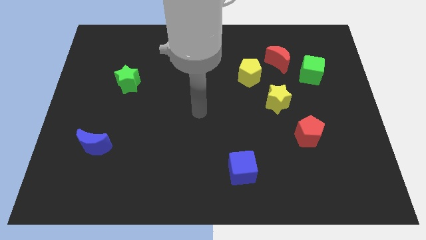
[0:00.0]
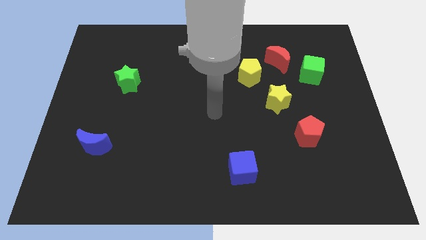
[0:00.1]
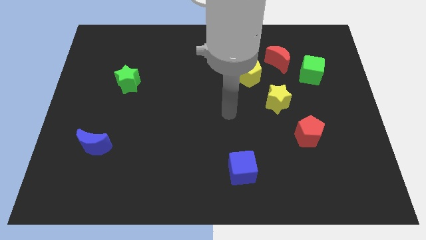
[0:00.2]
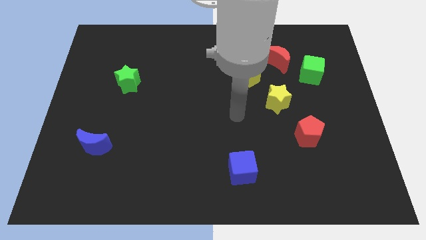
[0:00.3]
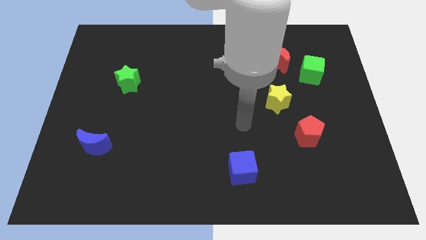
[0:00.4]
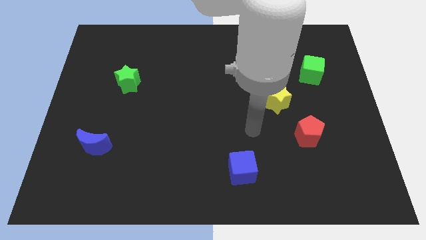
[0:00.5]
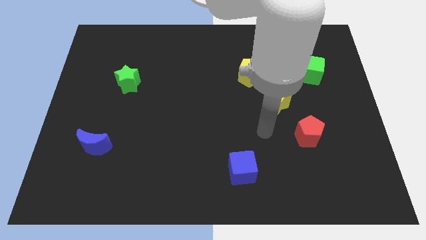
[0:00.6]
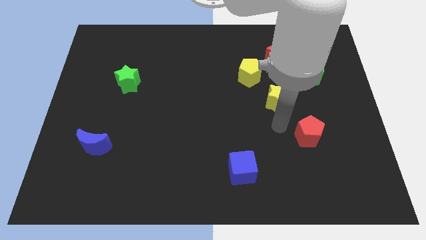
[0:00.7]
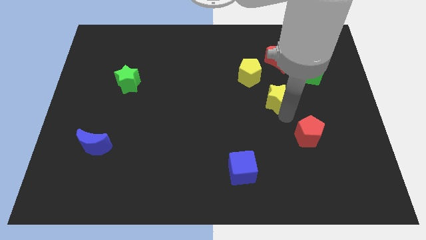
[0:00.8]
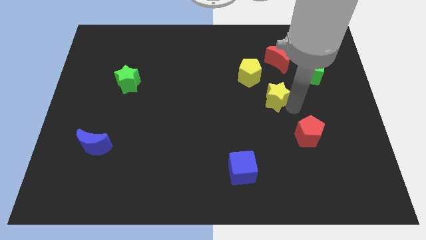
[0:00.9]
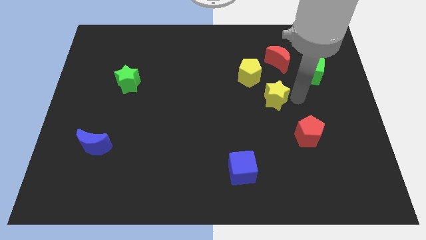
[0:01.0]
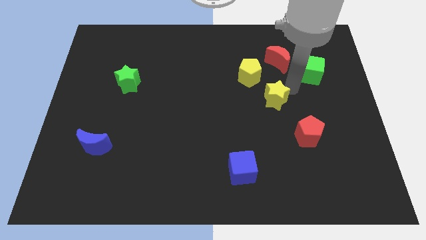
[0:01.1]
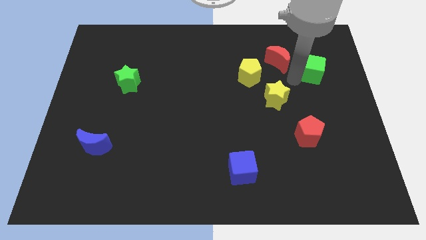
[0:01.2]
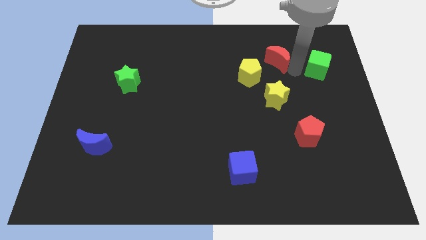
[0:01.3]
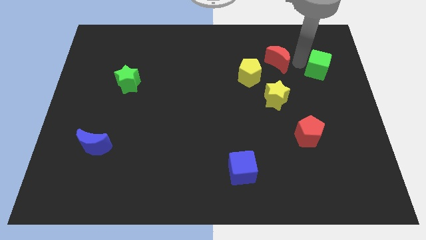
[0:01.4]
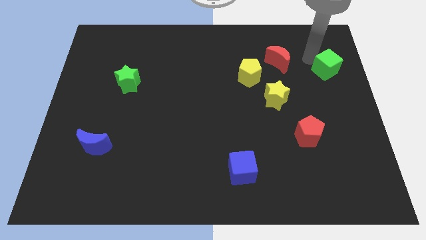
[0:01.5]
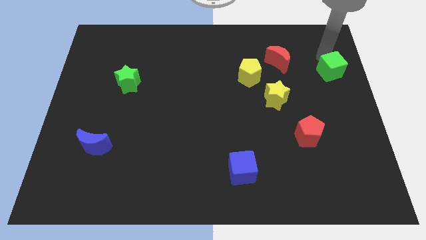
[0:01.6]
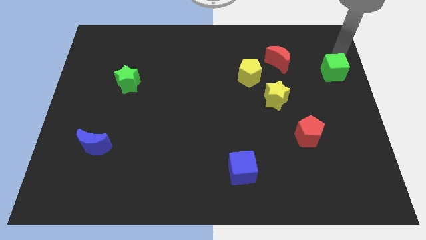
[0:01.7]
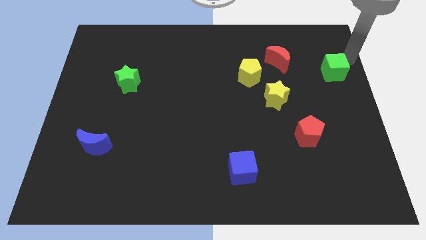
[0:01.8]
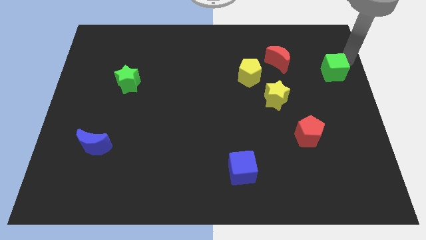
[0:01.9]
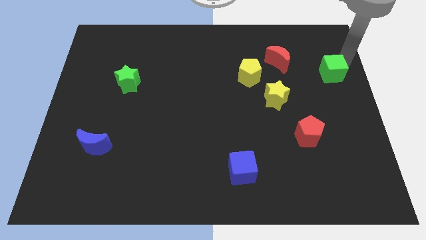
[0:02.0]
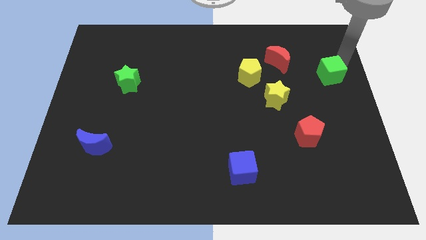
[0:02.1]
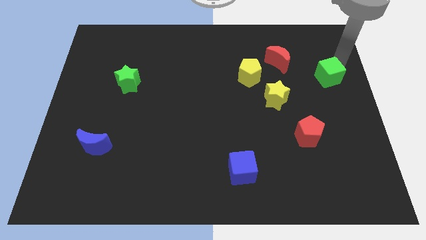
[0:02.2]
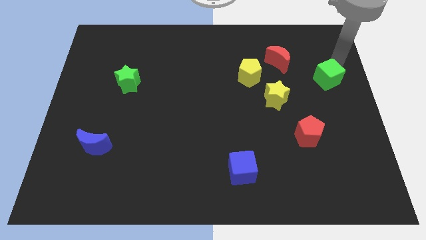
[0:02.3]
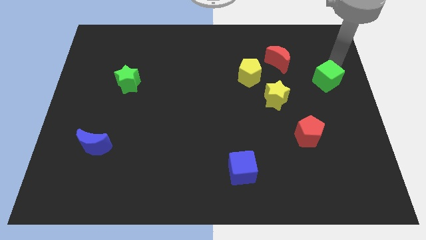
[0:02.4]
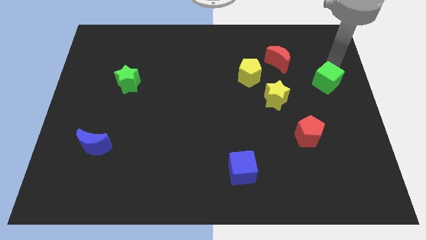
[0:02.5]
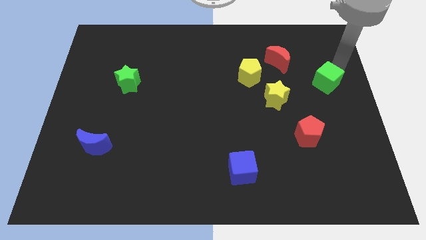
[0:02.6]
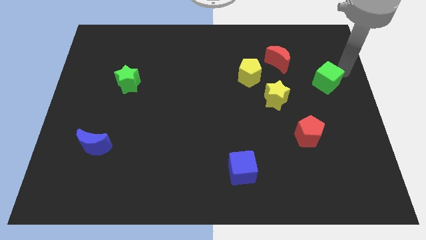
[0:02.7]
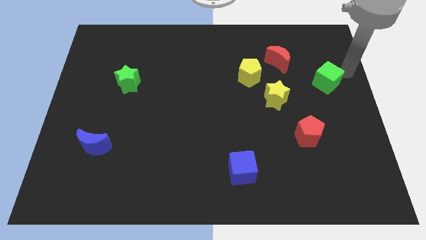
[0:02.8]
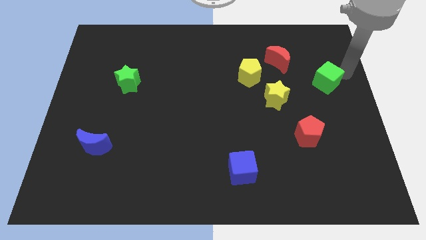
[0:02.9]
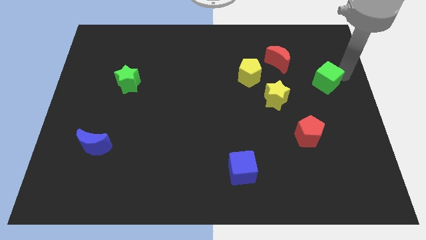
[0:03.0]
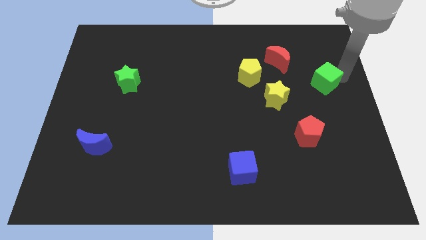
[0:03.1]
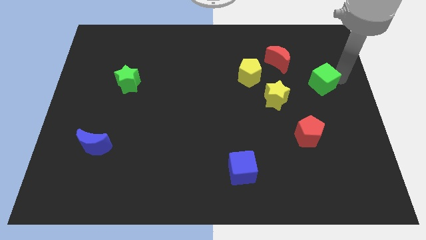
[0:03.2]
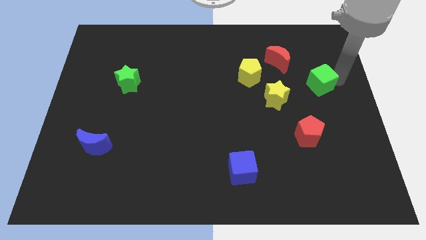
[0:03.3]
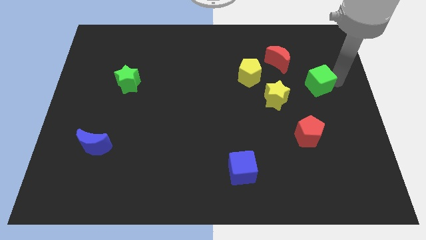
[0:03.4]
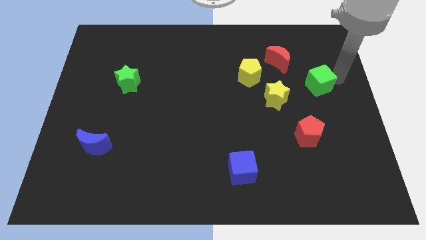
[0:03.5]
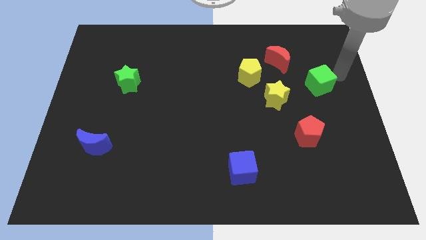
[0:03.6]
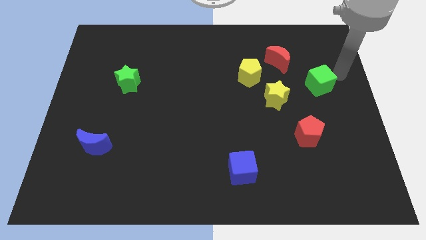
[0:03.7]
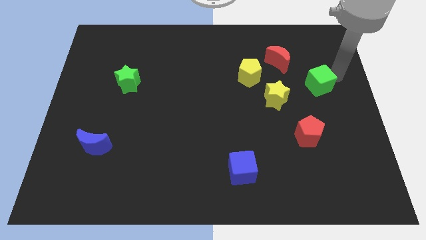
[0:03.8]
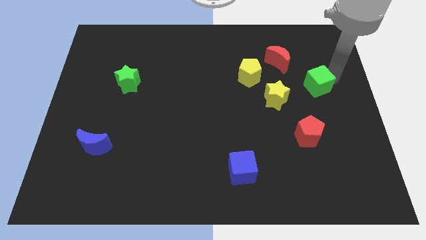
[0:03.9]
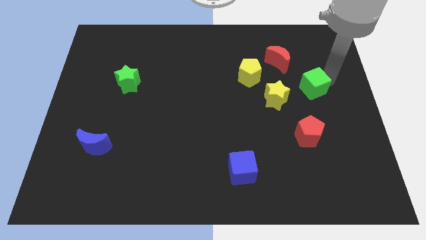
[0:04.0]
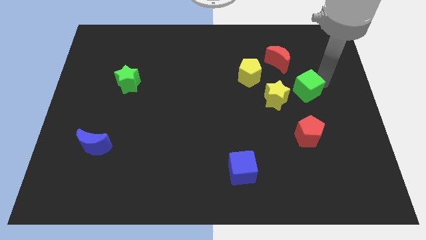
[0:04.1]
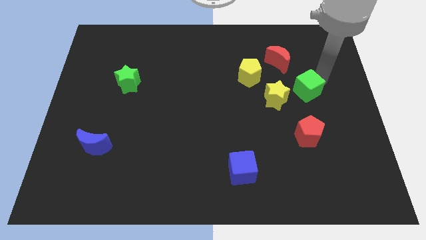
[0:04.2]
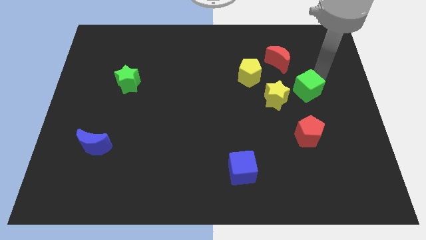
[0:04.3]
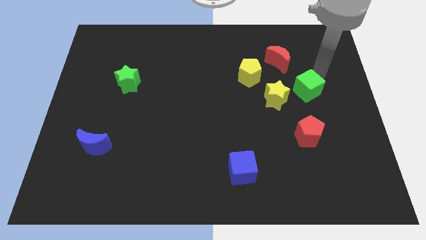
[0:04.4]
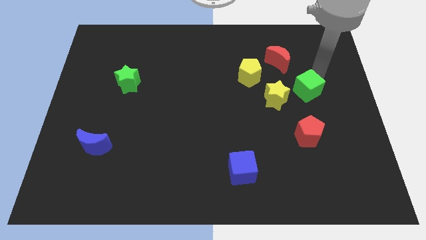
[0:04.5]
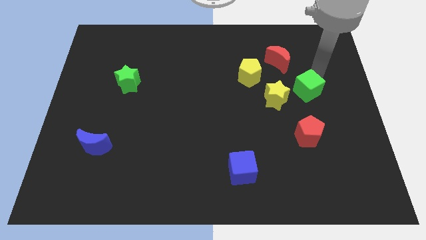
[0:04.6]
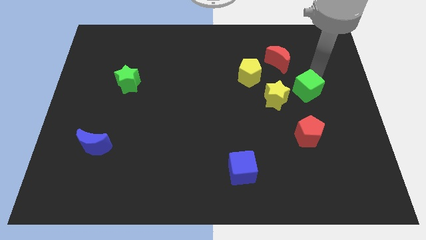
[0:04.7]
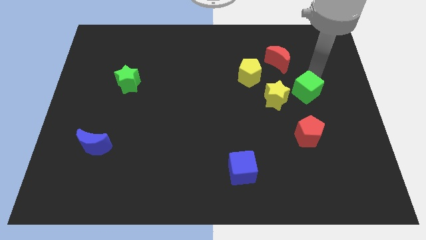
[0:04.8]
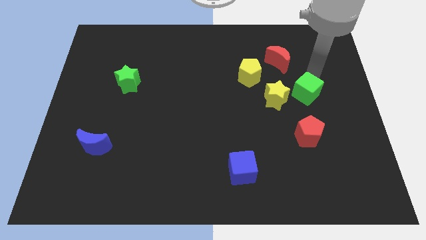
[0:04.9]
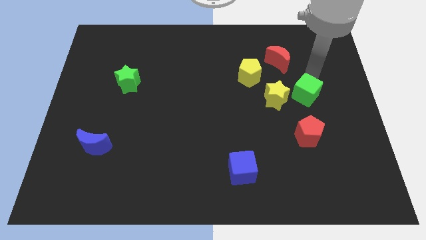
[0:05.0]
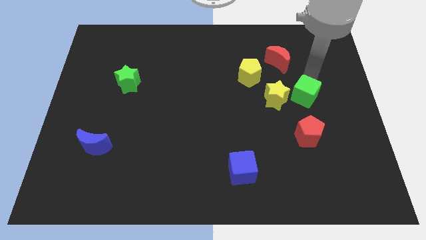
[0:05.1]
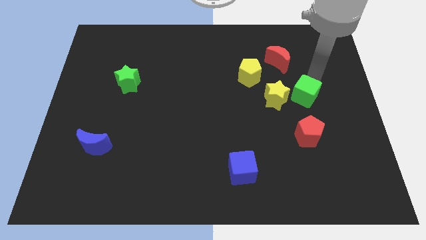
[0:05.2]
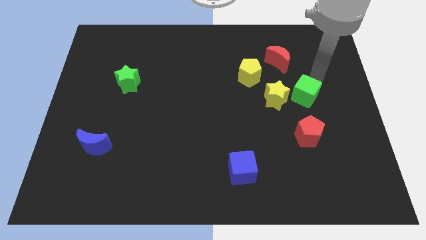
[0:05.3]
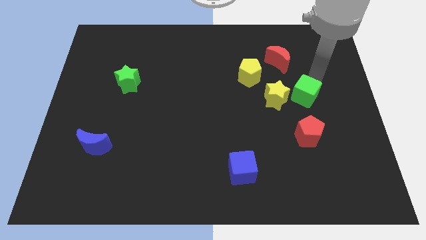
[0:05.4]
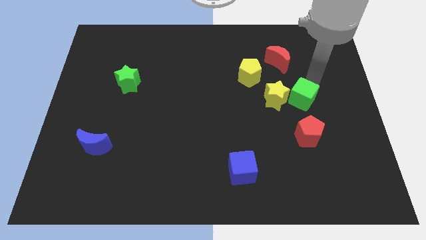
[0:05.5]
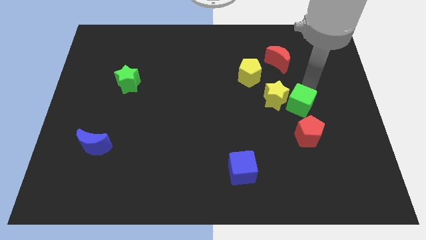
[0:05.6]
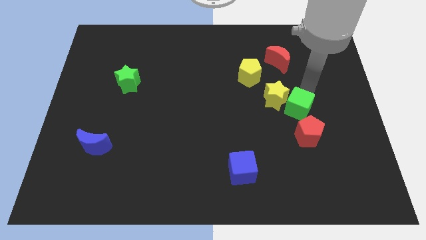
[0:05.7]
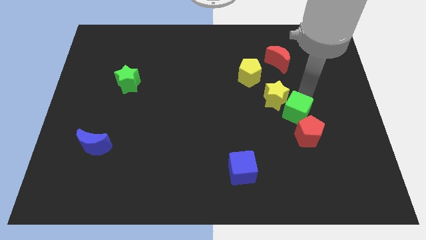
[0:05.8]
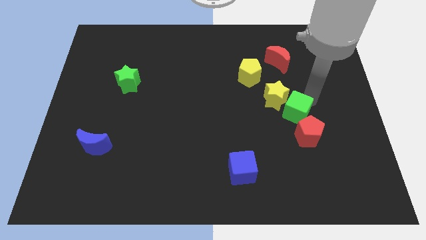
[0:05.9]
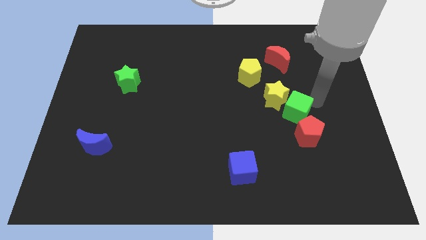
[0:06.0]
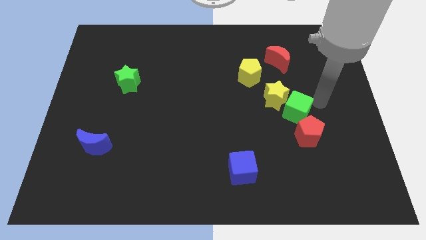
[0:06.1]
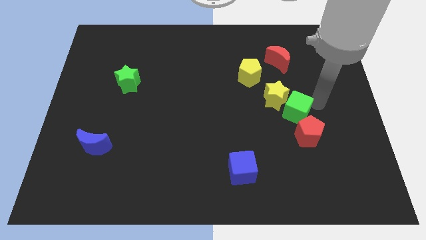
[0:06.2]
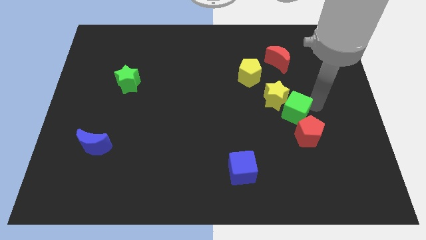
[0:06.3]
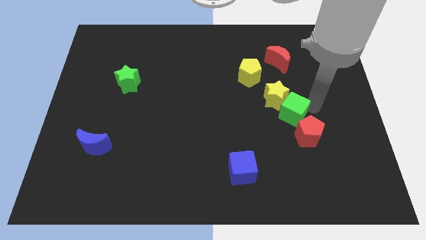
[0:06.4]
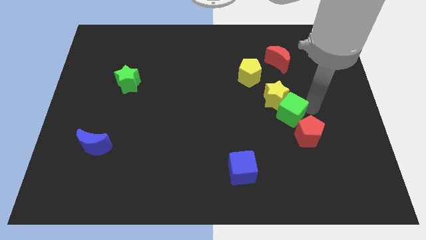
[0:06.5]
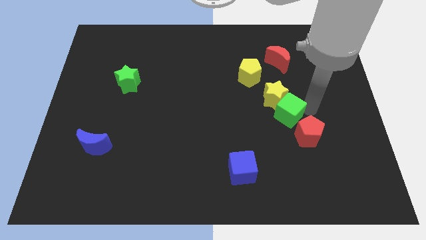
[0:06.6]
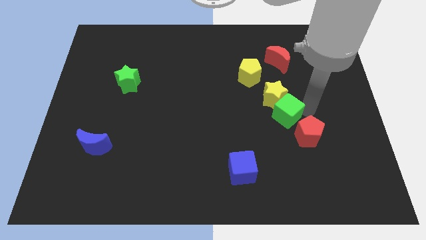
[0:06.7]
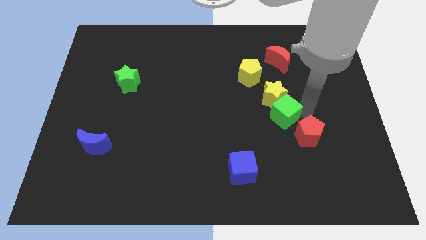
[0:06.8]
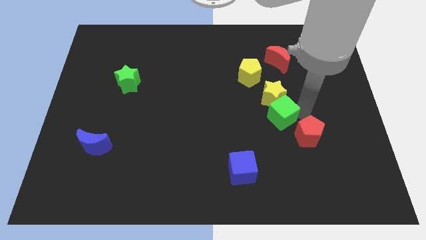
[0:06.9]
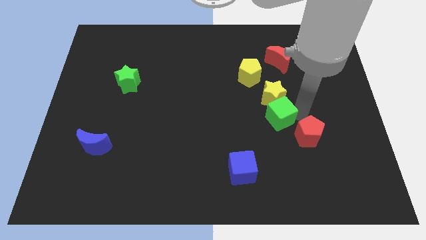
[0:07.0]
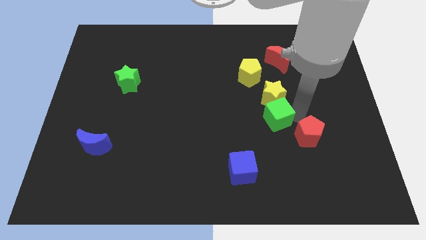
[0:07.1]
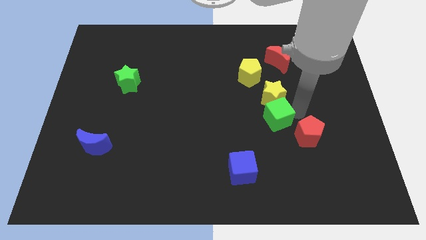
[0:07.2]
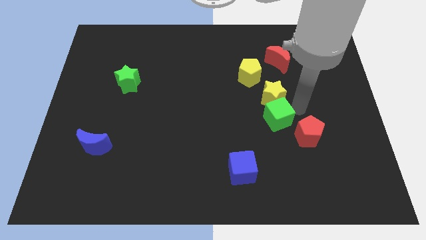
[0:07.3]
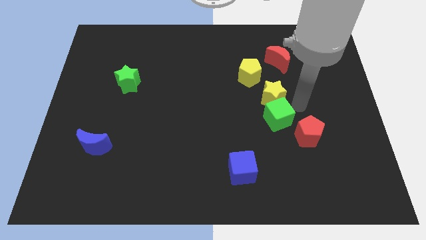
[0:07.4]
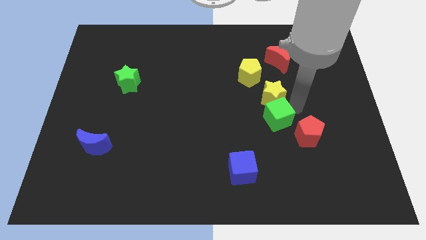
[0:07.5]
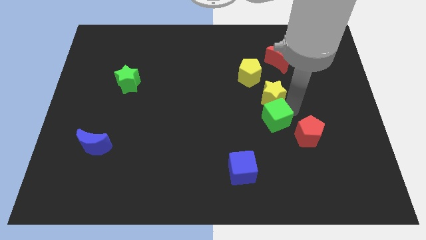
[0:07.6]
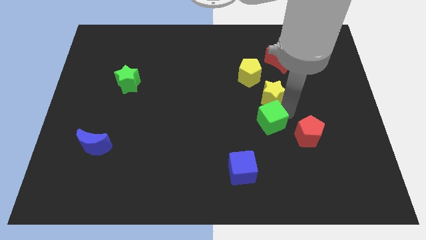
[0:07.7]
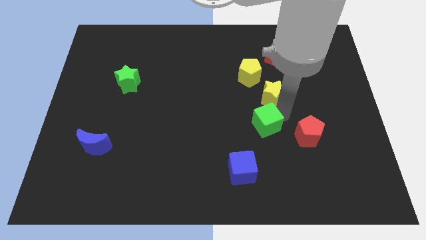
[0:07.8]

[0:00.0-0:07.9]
move the green cube diagonally down and to the left

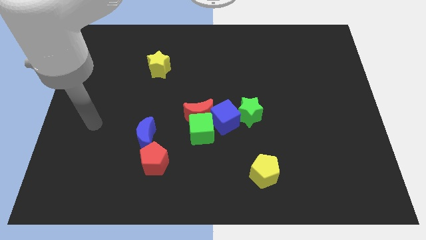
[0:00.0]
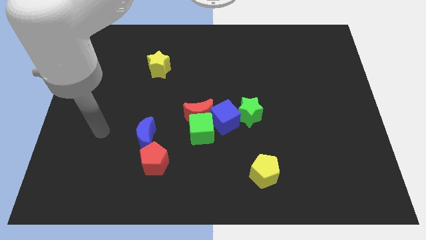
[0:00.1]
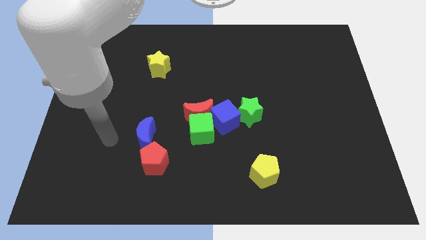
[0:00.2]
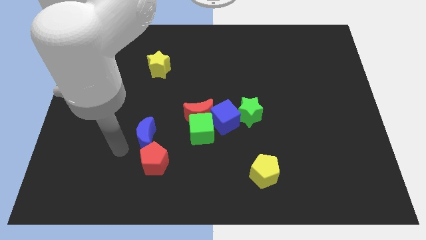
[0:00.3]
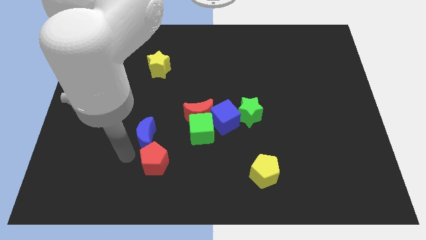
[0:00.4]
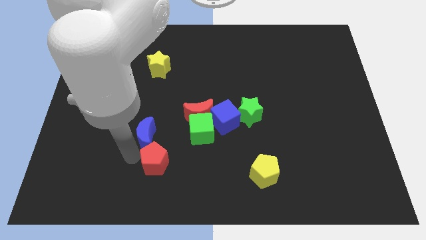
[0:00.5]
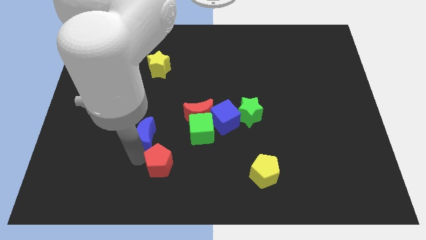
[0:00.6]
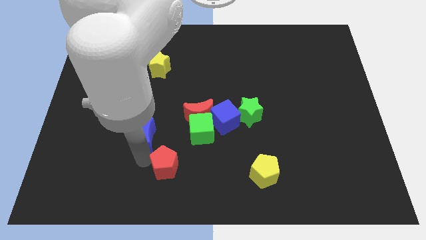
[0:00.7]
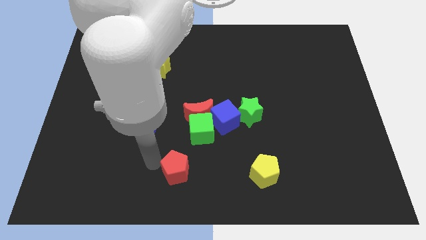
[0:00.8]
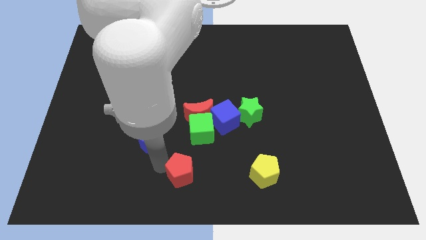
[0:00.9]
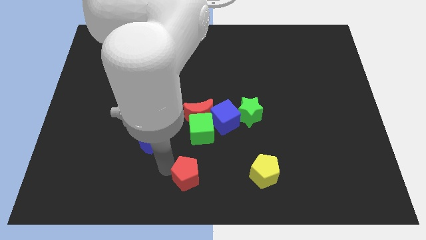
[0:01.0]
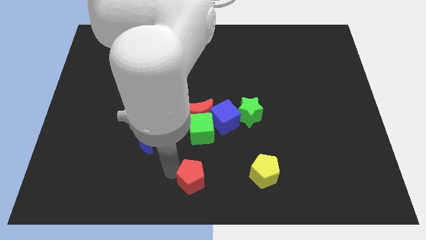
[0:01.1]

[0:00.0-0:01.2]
slide the red pentagon right a bit
